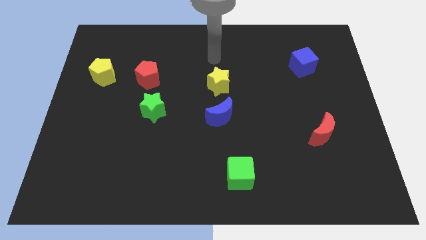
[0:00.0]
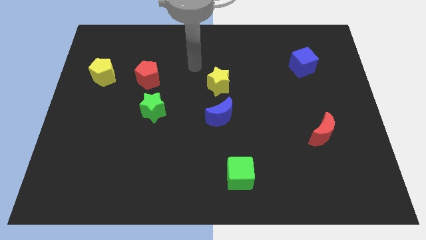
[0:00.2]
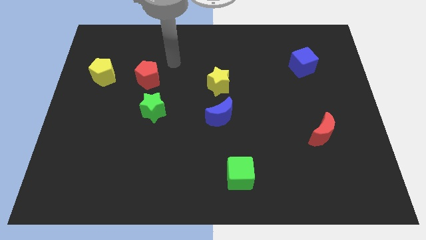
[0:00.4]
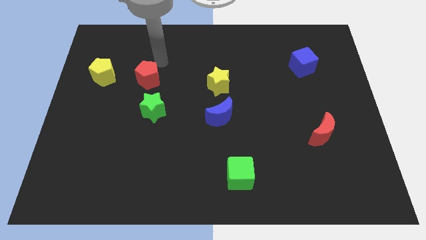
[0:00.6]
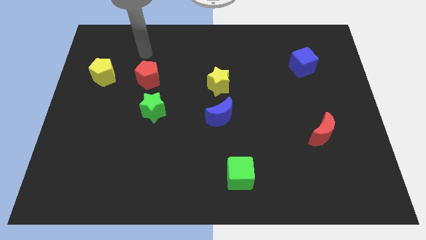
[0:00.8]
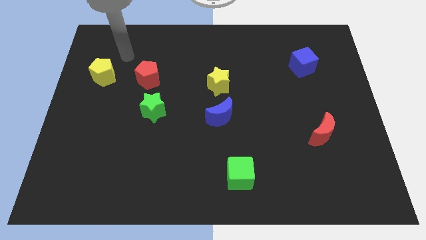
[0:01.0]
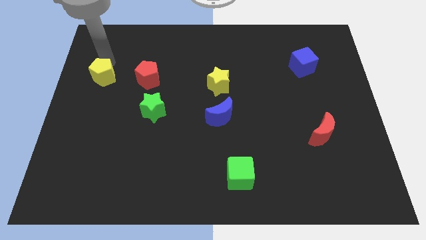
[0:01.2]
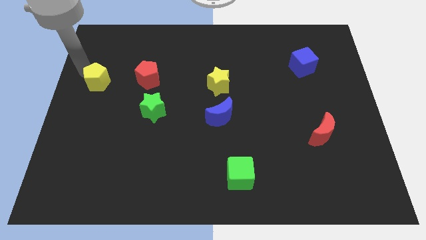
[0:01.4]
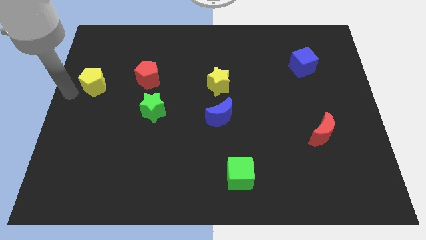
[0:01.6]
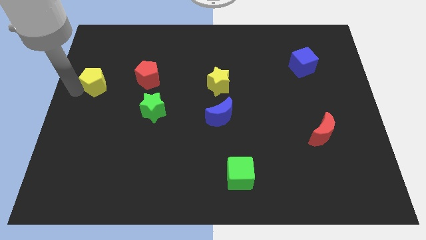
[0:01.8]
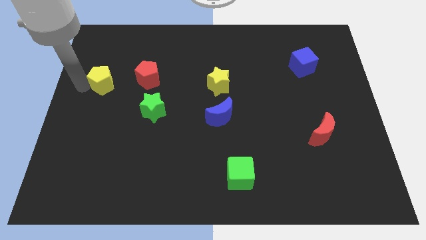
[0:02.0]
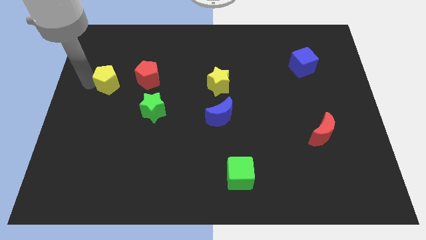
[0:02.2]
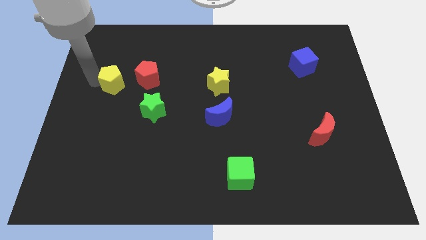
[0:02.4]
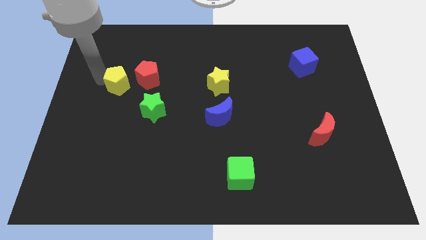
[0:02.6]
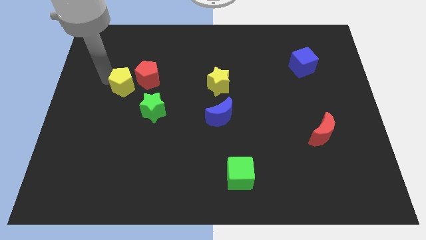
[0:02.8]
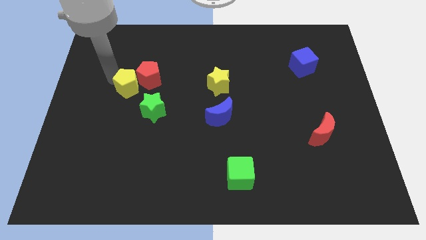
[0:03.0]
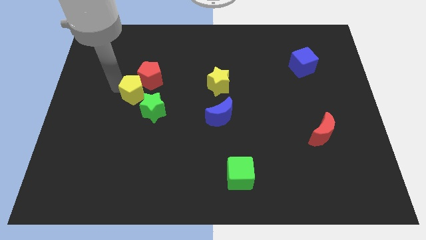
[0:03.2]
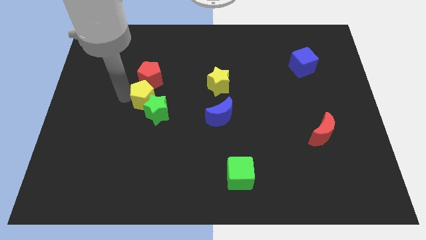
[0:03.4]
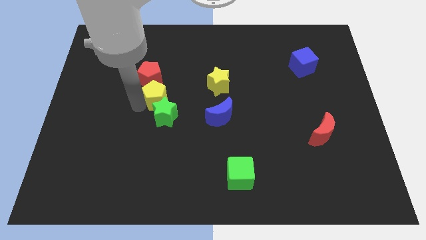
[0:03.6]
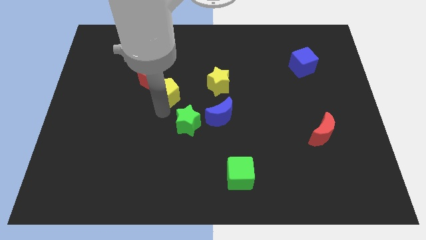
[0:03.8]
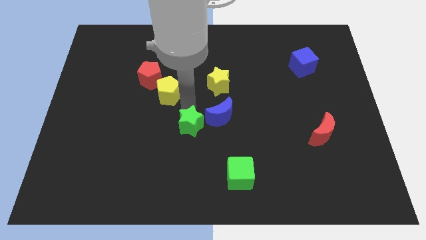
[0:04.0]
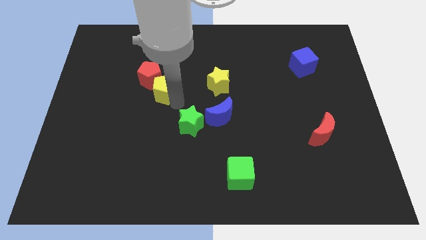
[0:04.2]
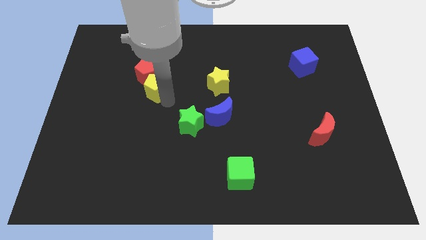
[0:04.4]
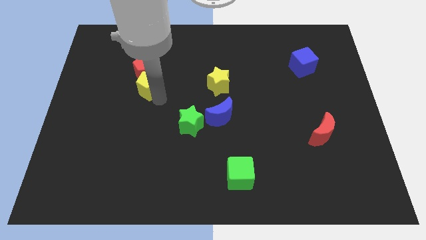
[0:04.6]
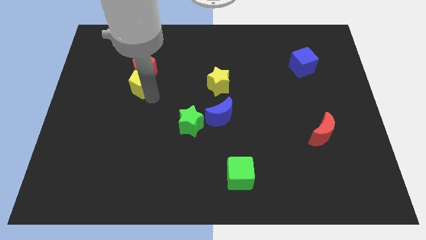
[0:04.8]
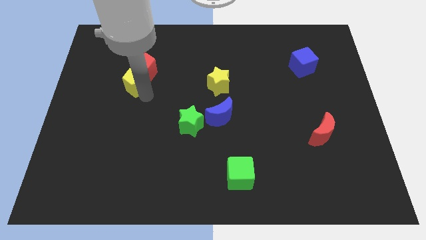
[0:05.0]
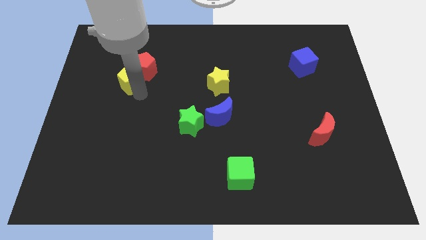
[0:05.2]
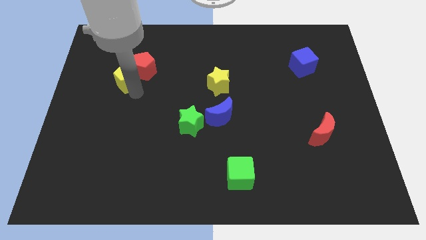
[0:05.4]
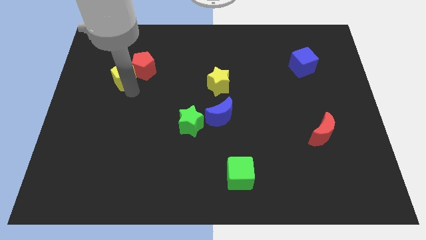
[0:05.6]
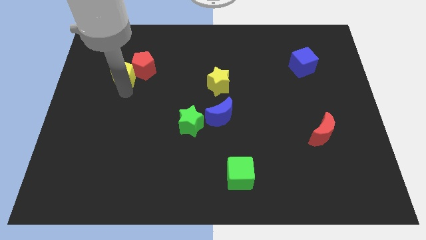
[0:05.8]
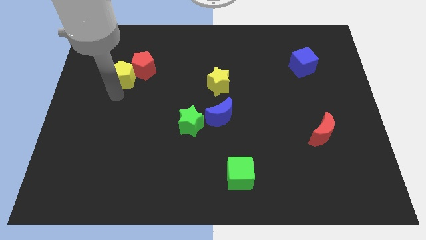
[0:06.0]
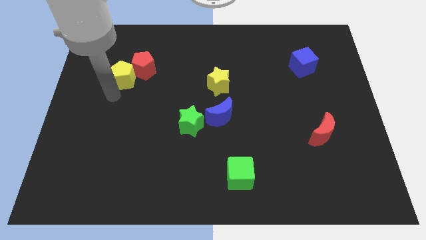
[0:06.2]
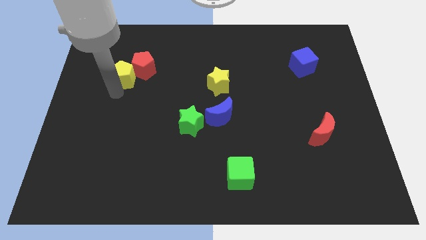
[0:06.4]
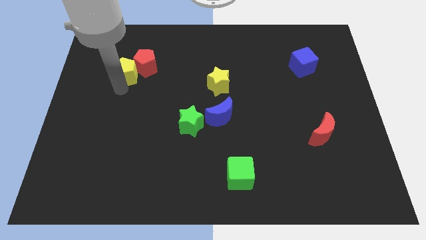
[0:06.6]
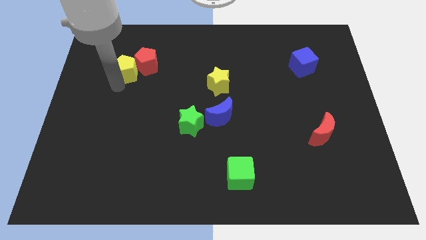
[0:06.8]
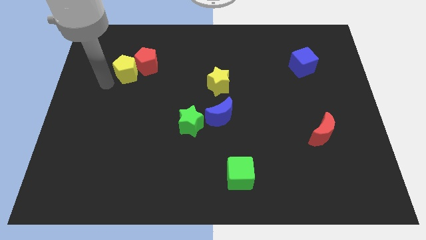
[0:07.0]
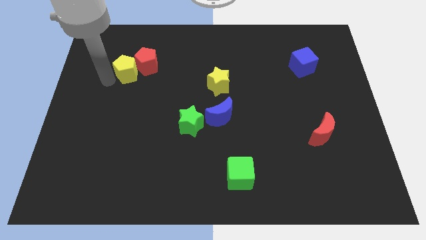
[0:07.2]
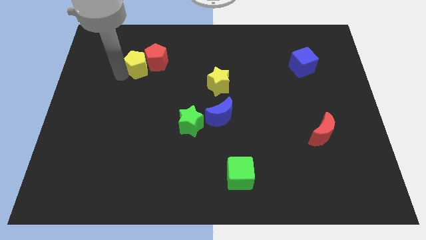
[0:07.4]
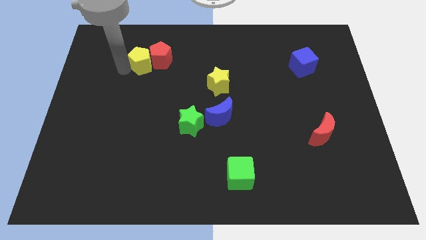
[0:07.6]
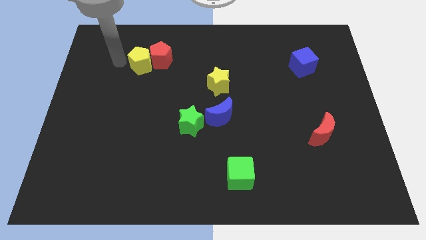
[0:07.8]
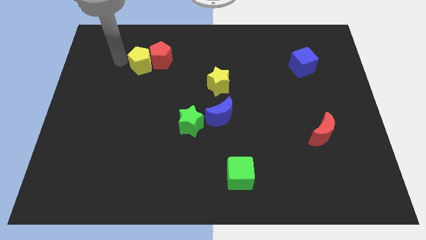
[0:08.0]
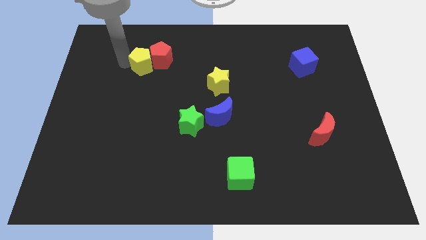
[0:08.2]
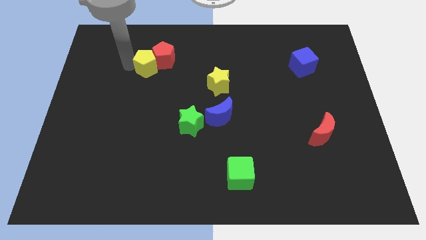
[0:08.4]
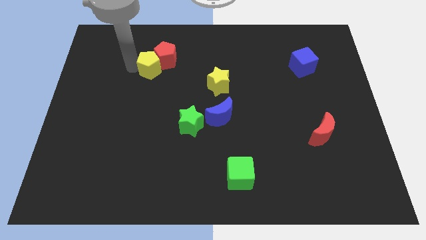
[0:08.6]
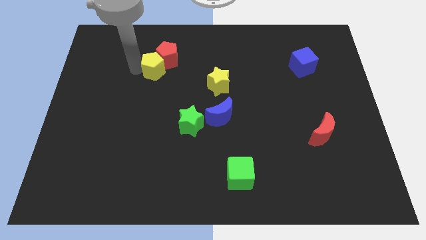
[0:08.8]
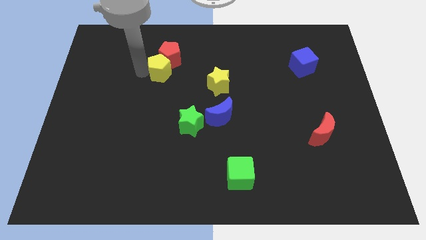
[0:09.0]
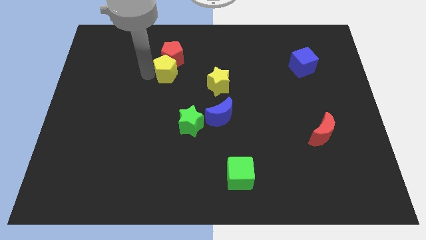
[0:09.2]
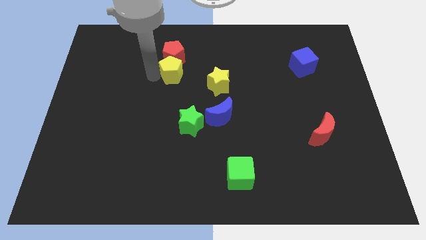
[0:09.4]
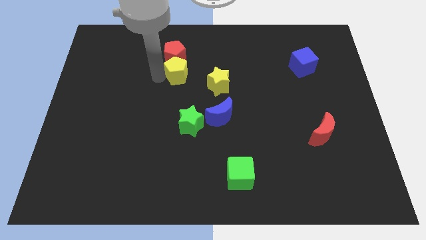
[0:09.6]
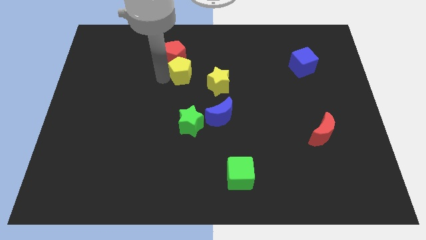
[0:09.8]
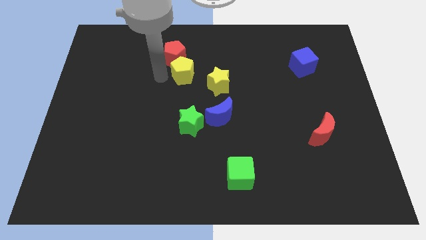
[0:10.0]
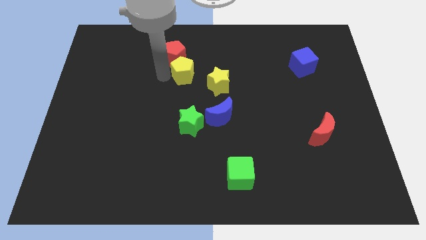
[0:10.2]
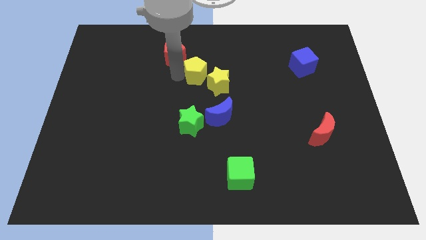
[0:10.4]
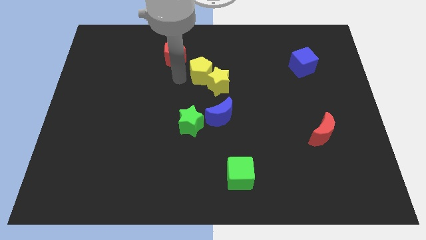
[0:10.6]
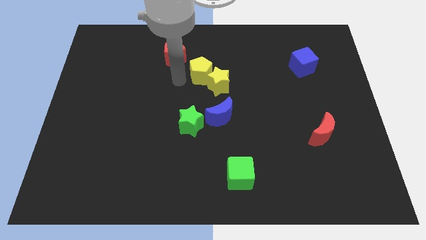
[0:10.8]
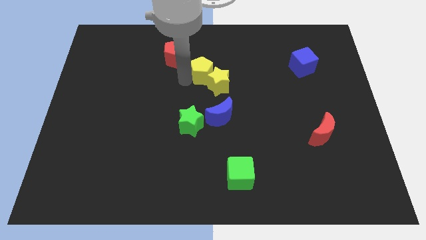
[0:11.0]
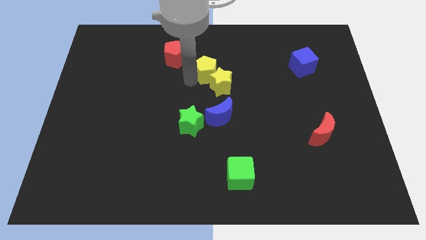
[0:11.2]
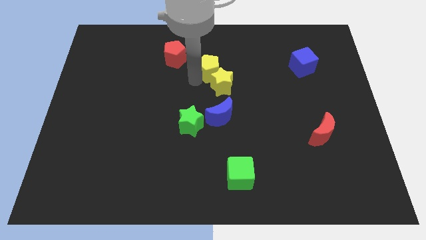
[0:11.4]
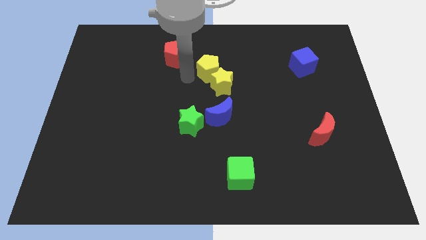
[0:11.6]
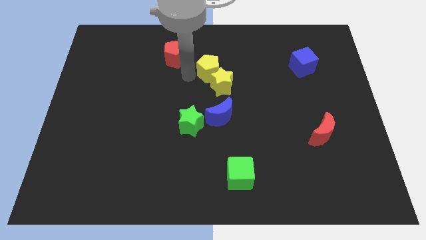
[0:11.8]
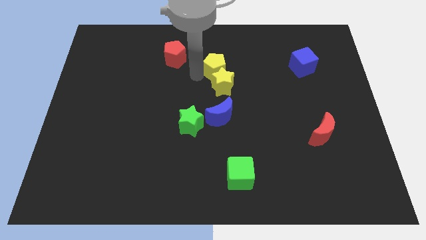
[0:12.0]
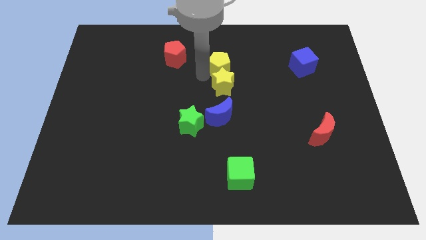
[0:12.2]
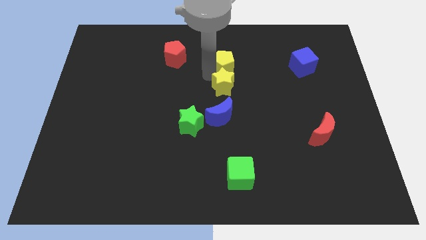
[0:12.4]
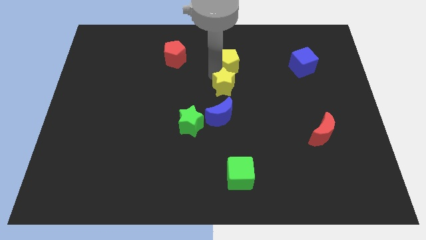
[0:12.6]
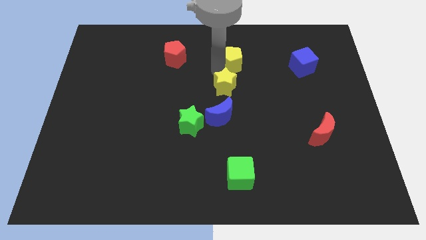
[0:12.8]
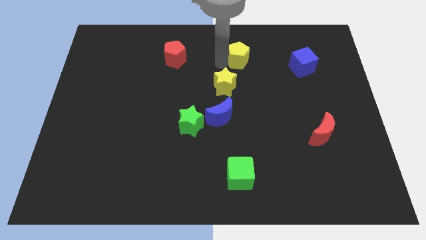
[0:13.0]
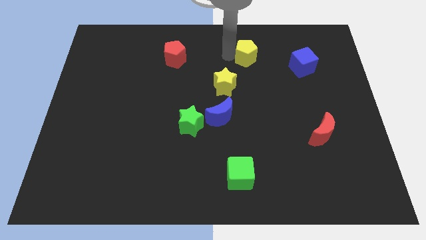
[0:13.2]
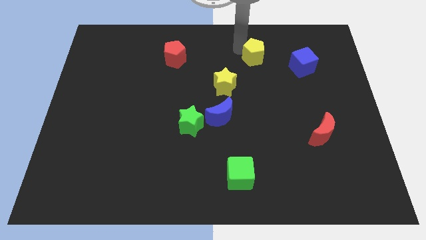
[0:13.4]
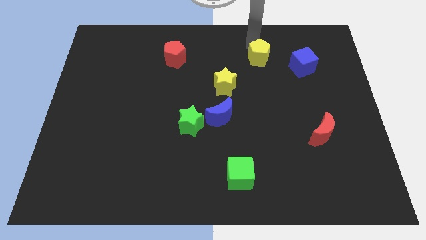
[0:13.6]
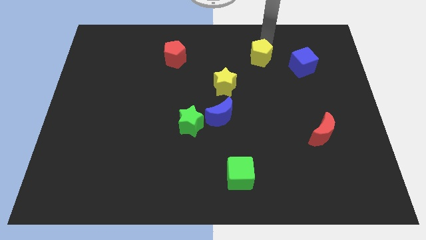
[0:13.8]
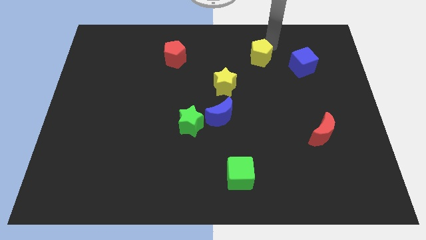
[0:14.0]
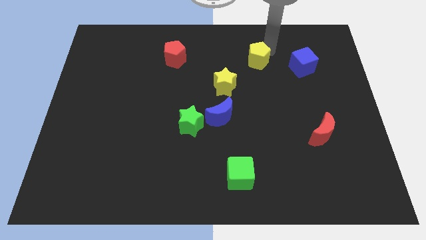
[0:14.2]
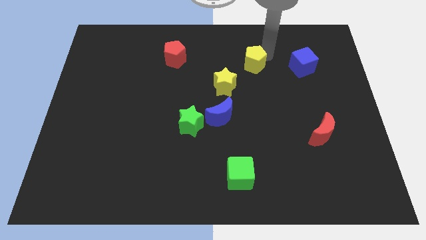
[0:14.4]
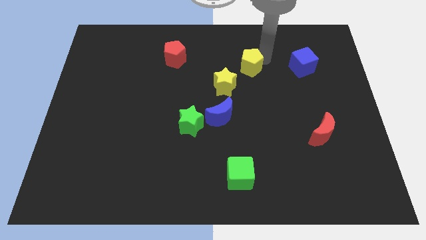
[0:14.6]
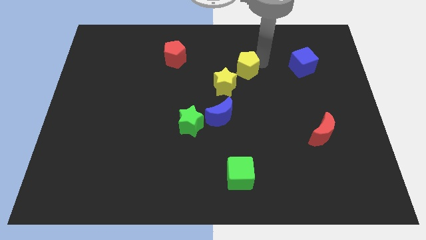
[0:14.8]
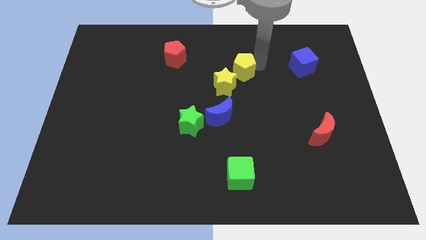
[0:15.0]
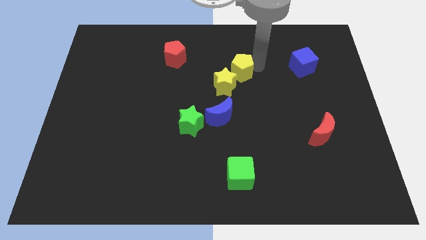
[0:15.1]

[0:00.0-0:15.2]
push the yellow pentagon to the right of the yellow star
